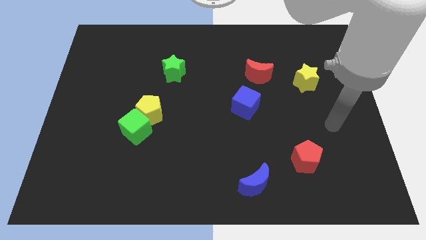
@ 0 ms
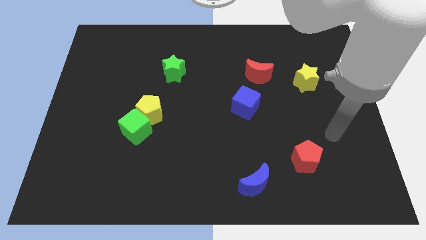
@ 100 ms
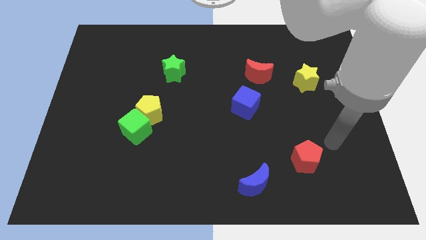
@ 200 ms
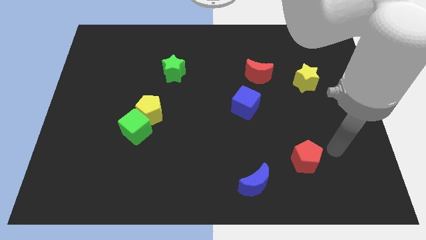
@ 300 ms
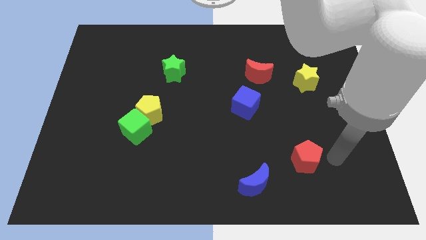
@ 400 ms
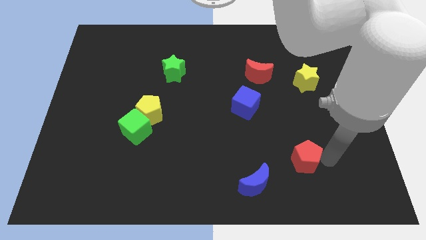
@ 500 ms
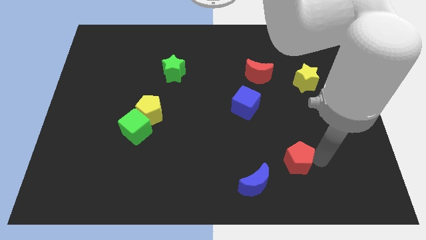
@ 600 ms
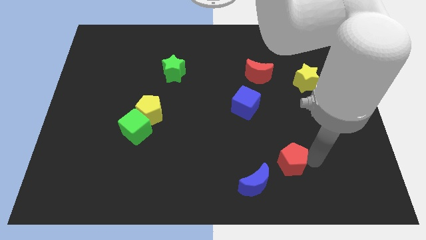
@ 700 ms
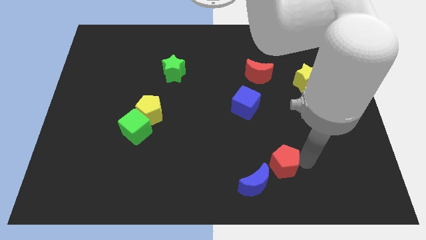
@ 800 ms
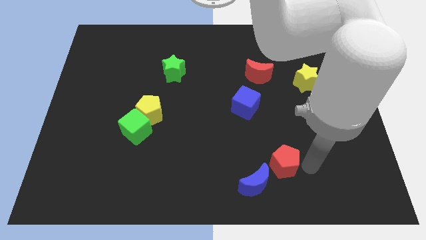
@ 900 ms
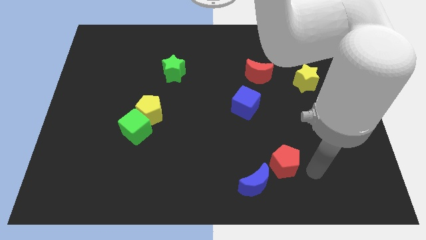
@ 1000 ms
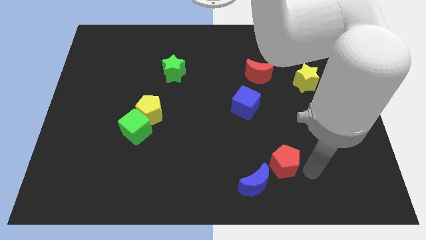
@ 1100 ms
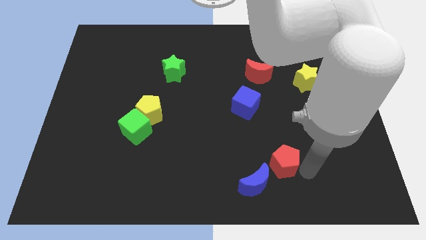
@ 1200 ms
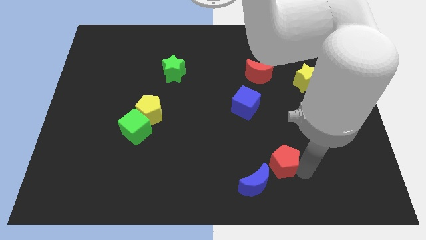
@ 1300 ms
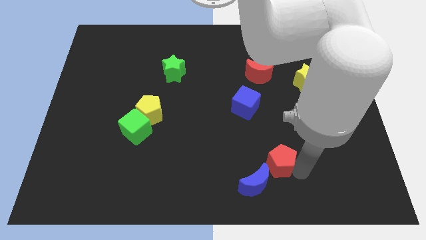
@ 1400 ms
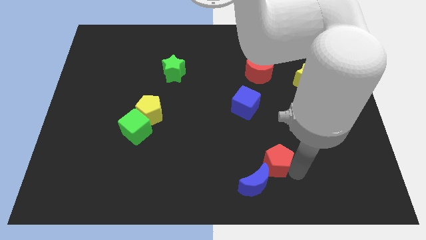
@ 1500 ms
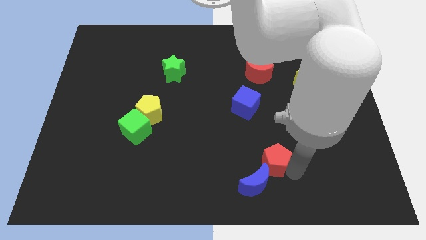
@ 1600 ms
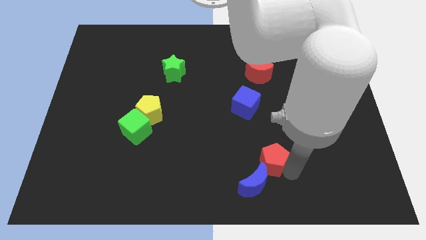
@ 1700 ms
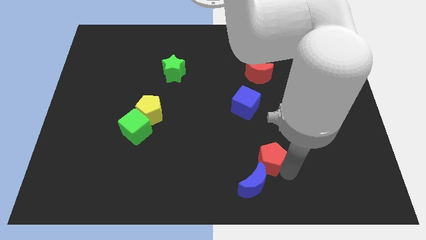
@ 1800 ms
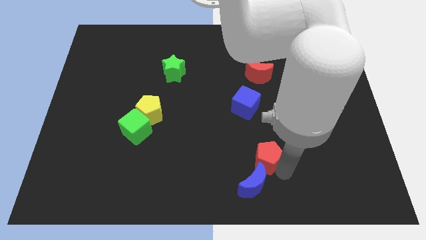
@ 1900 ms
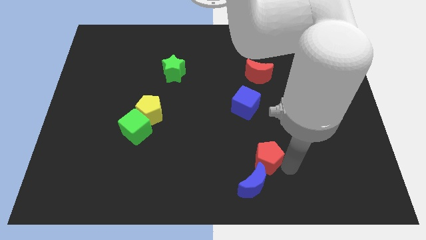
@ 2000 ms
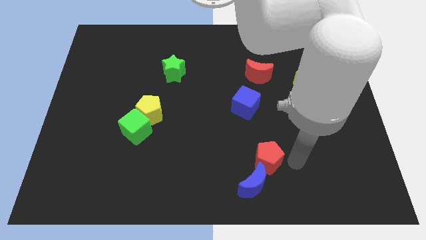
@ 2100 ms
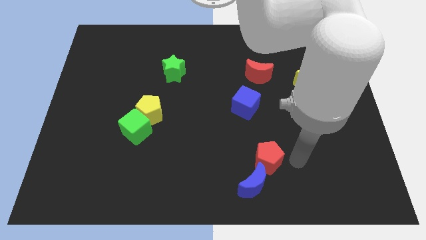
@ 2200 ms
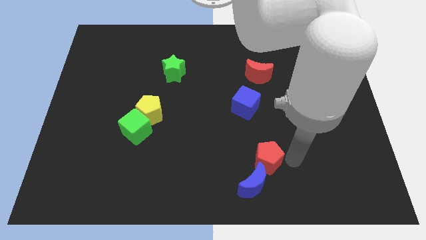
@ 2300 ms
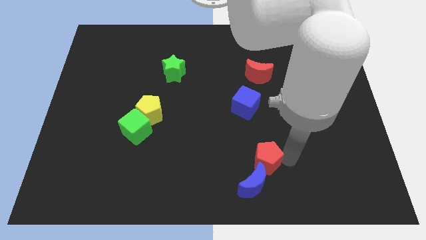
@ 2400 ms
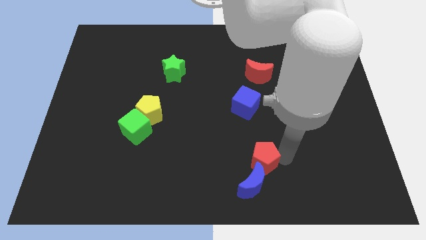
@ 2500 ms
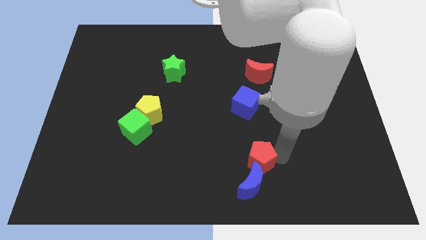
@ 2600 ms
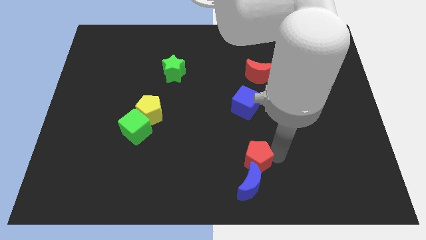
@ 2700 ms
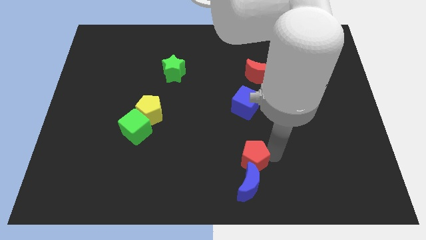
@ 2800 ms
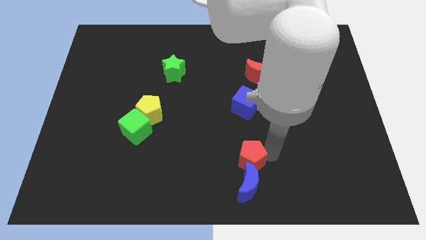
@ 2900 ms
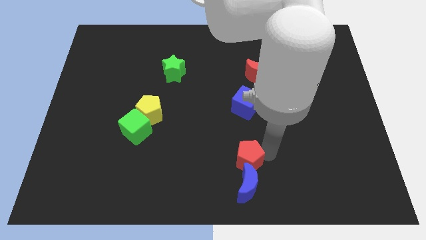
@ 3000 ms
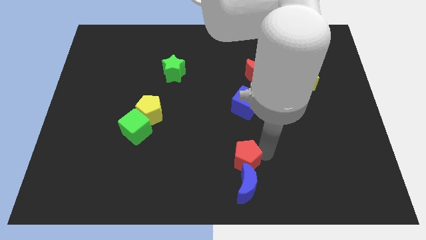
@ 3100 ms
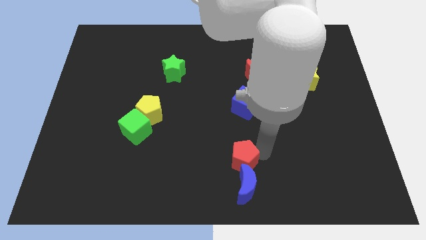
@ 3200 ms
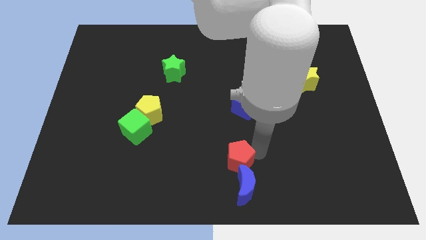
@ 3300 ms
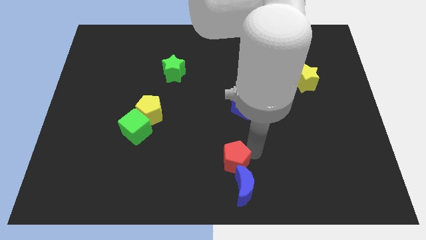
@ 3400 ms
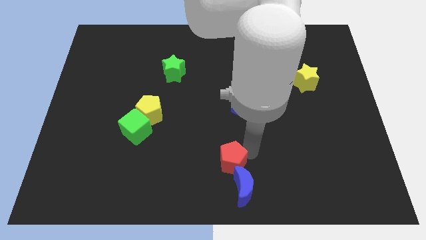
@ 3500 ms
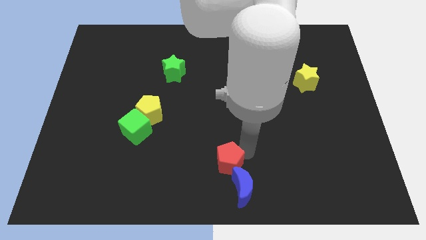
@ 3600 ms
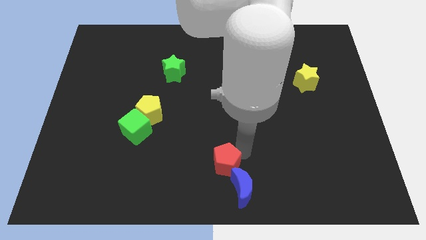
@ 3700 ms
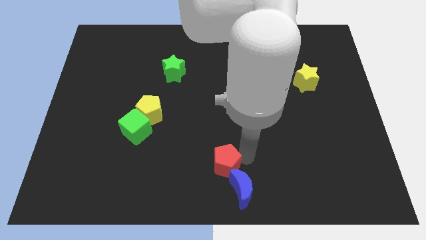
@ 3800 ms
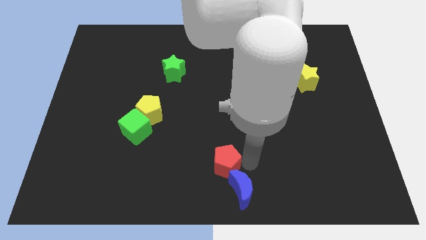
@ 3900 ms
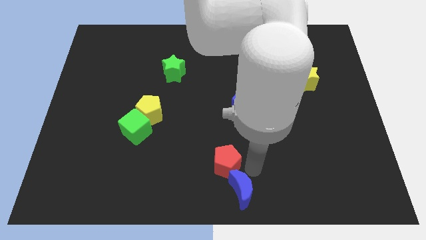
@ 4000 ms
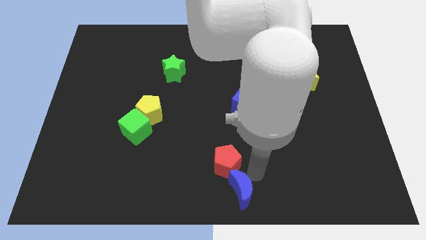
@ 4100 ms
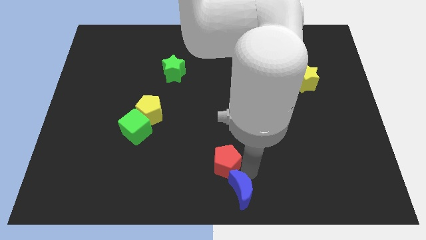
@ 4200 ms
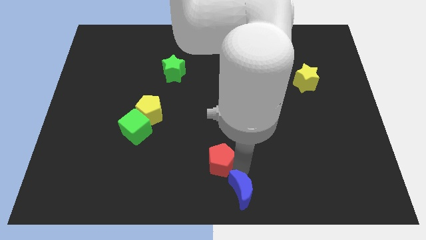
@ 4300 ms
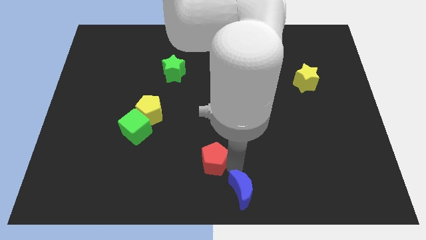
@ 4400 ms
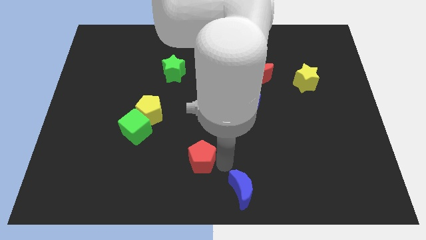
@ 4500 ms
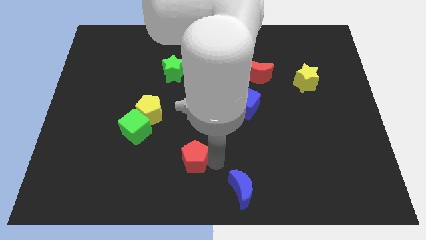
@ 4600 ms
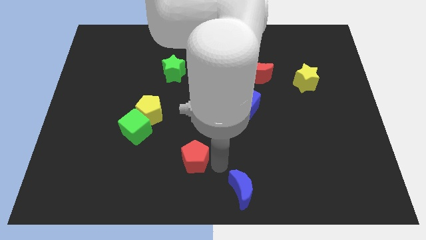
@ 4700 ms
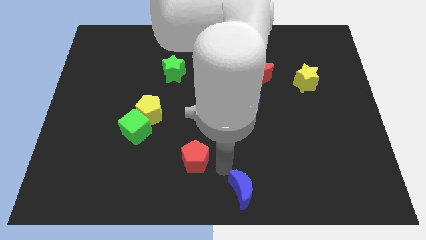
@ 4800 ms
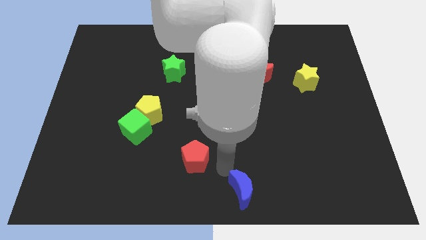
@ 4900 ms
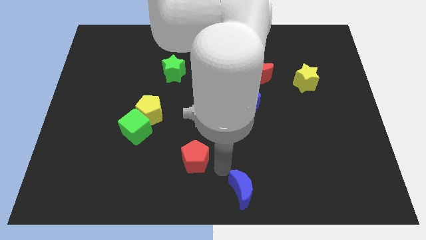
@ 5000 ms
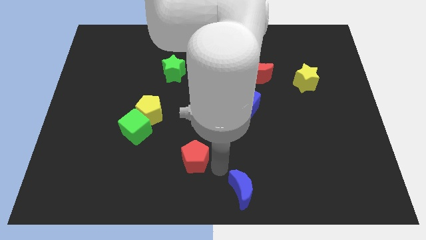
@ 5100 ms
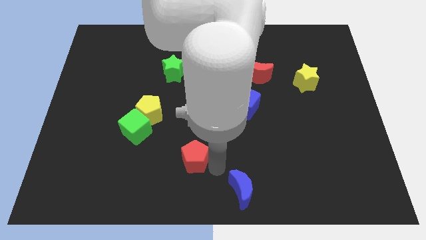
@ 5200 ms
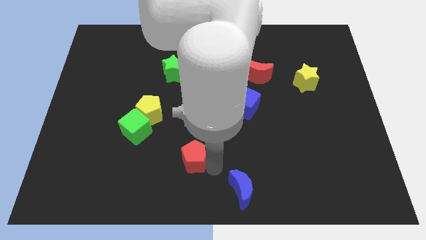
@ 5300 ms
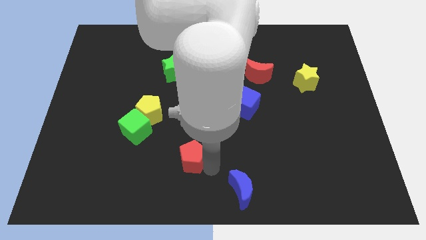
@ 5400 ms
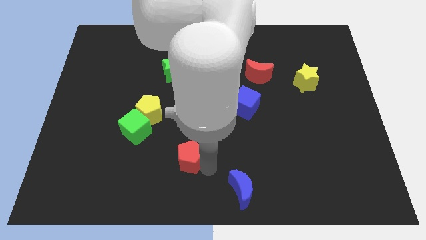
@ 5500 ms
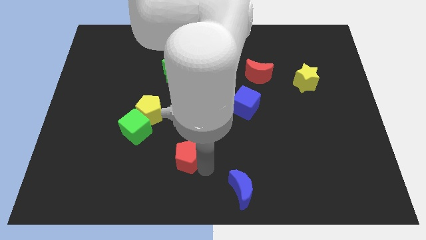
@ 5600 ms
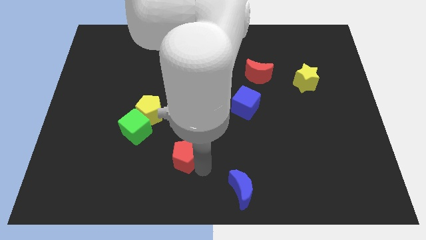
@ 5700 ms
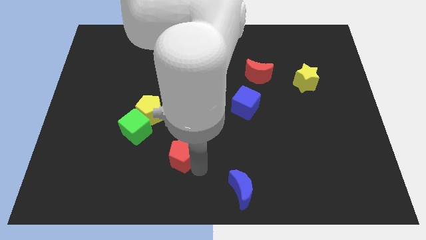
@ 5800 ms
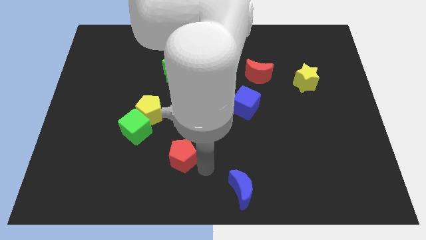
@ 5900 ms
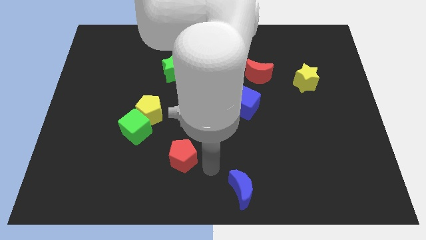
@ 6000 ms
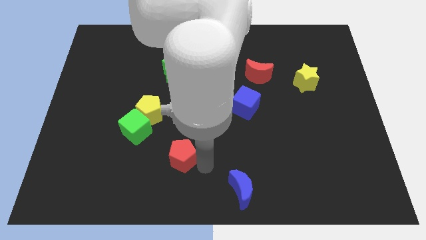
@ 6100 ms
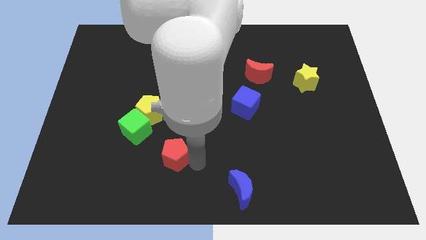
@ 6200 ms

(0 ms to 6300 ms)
put the red pentagon to the bottom right of the green cube

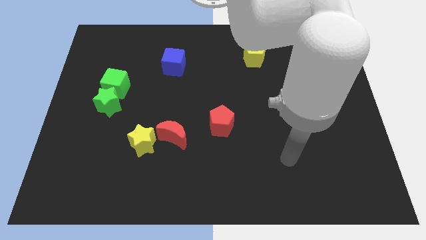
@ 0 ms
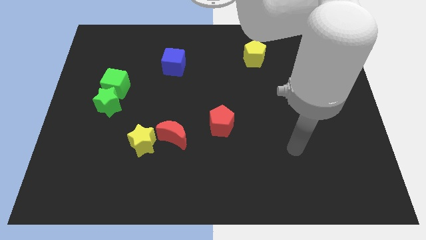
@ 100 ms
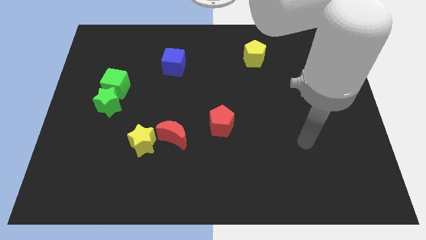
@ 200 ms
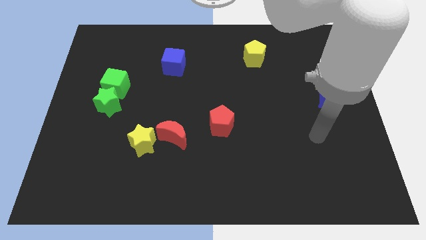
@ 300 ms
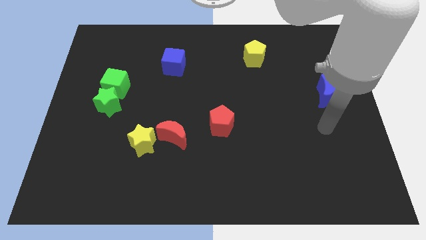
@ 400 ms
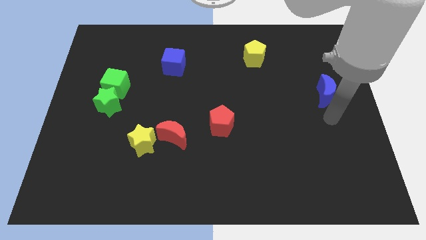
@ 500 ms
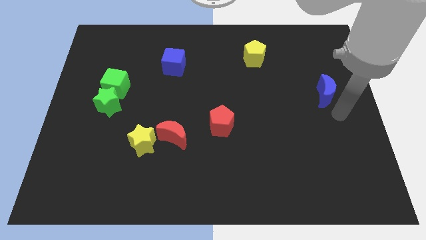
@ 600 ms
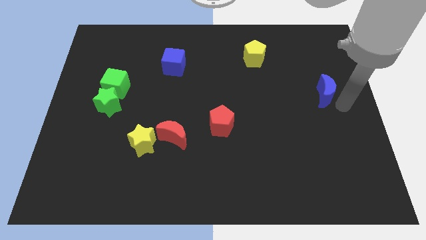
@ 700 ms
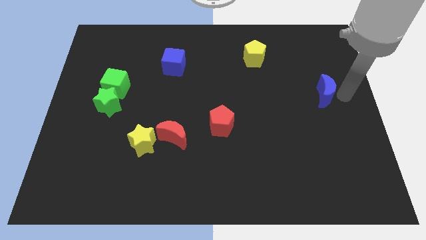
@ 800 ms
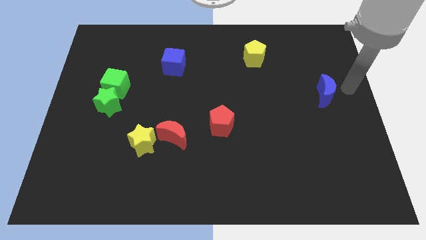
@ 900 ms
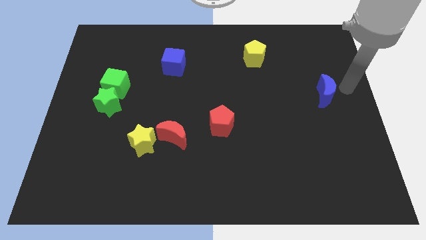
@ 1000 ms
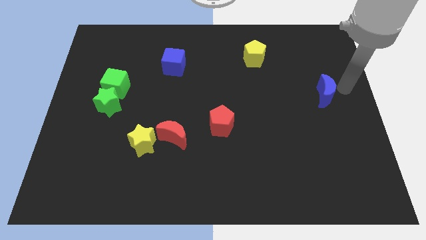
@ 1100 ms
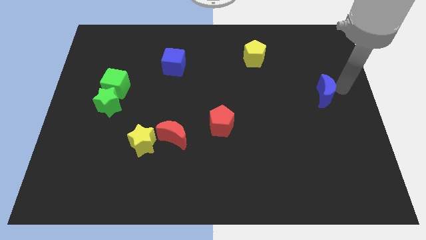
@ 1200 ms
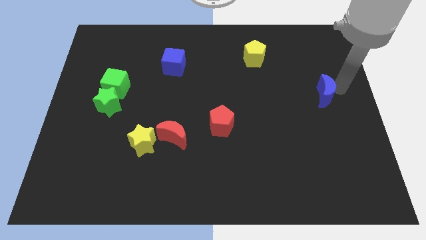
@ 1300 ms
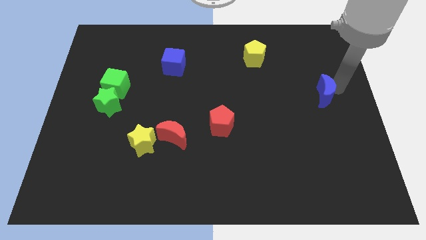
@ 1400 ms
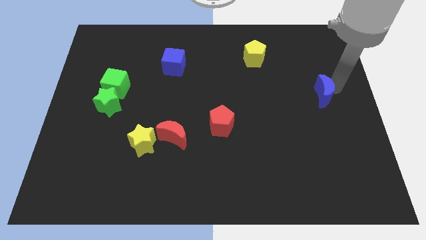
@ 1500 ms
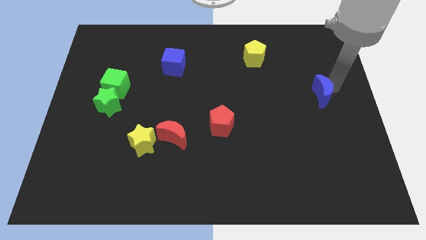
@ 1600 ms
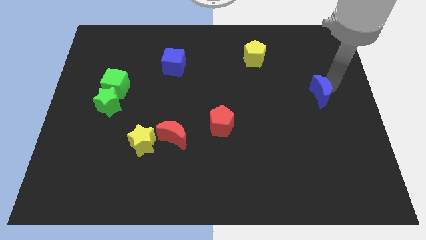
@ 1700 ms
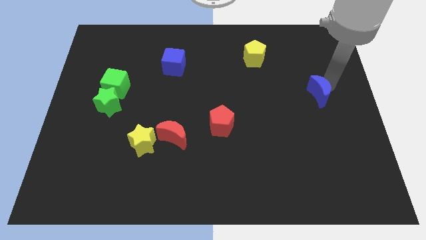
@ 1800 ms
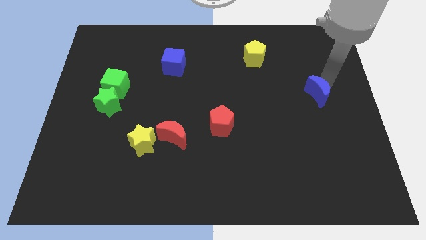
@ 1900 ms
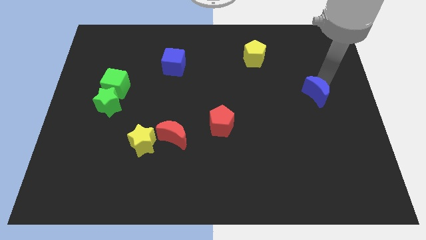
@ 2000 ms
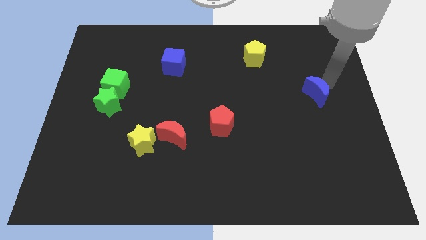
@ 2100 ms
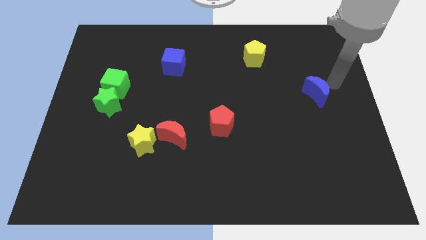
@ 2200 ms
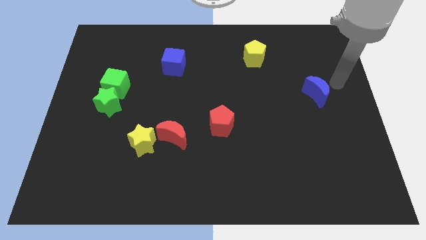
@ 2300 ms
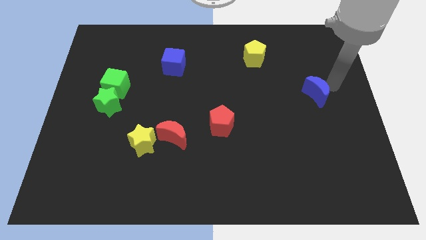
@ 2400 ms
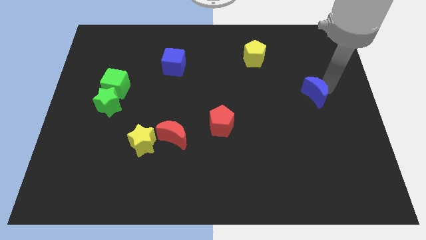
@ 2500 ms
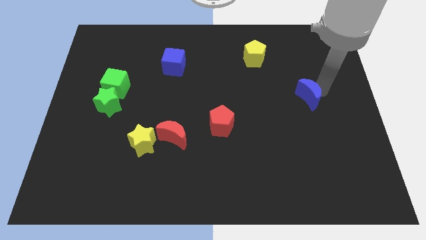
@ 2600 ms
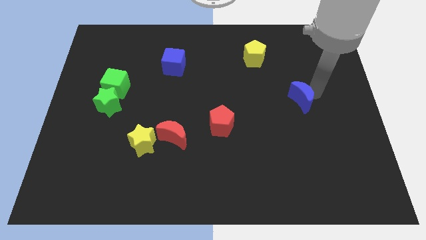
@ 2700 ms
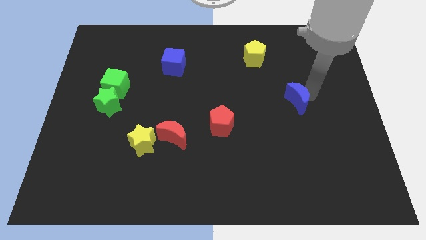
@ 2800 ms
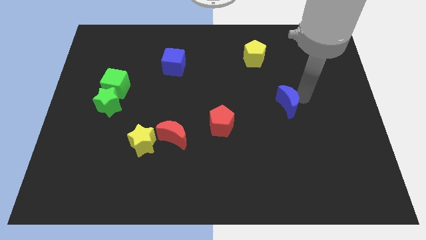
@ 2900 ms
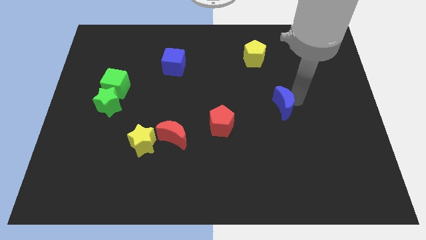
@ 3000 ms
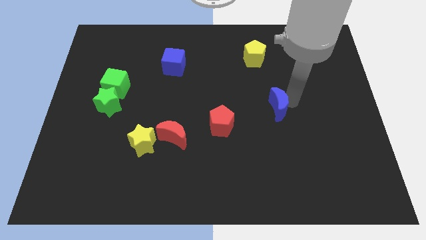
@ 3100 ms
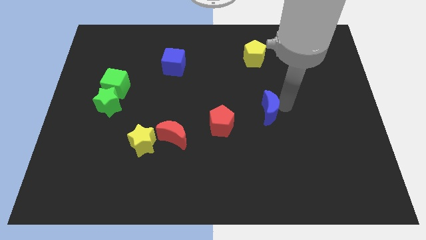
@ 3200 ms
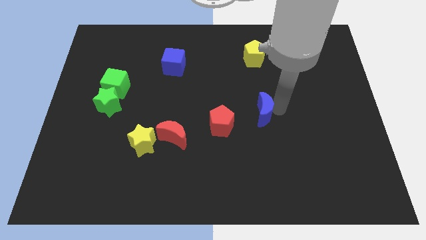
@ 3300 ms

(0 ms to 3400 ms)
put the blue moon to the top right of the red pentagon
